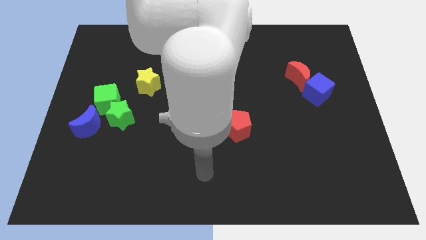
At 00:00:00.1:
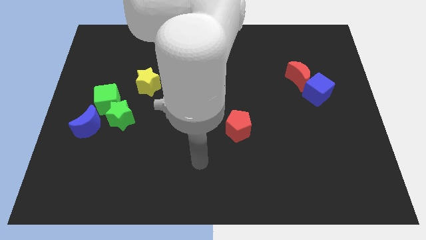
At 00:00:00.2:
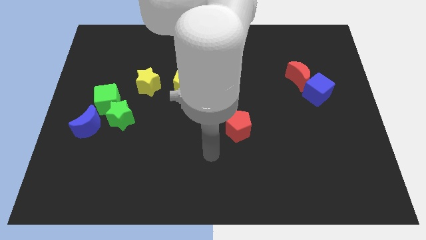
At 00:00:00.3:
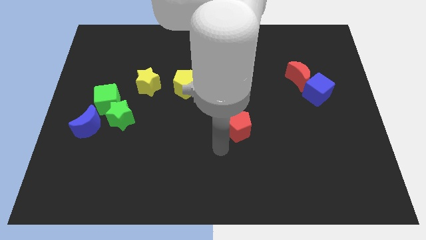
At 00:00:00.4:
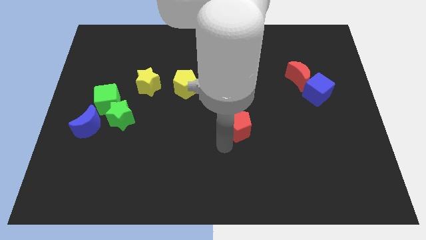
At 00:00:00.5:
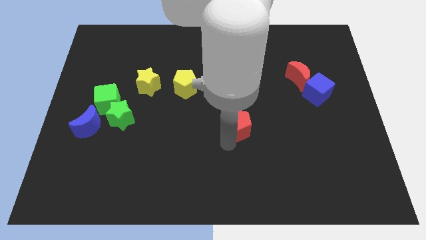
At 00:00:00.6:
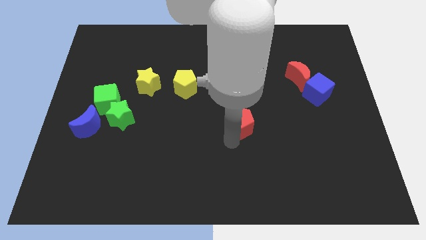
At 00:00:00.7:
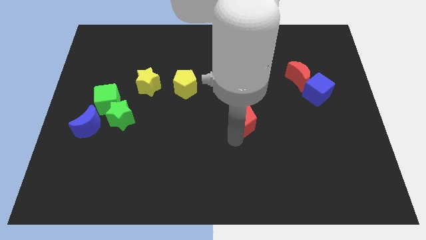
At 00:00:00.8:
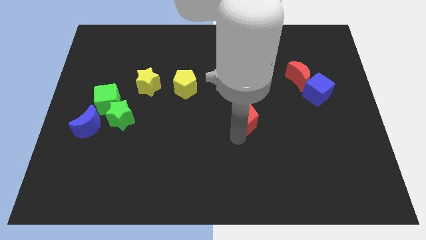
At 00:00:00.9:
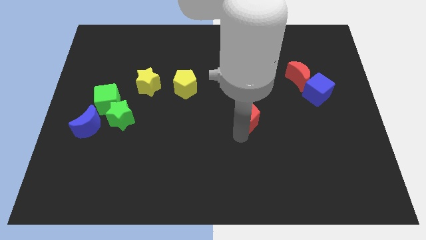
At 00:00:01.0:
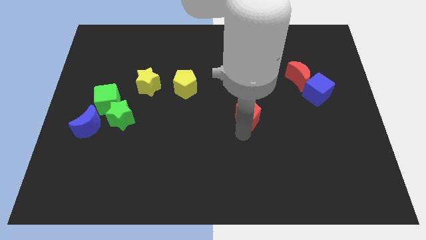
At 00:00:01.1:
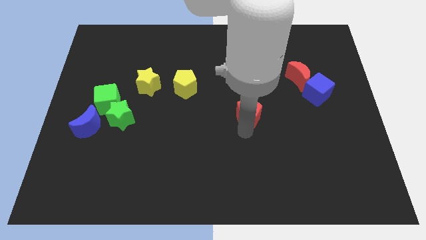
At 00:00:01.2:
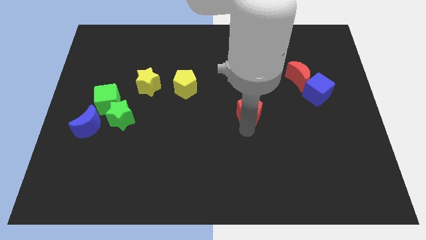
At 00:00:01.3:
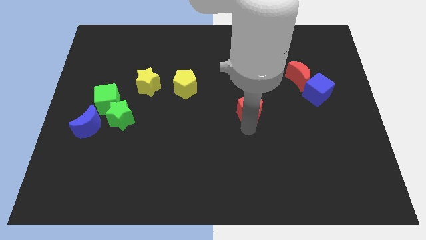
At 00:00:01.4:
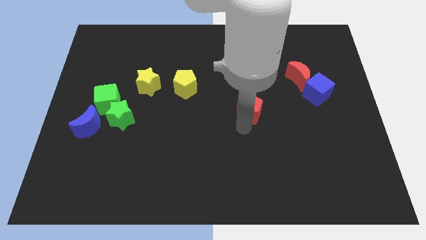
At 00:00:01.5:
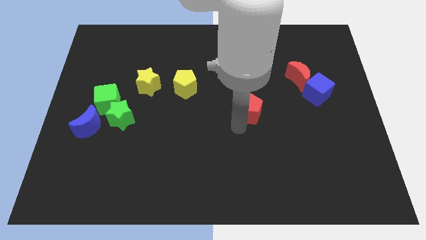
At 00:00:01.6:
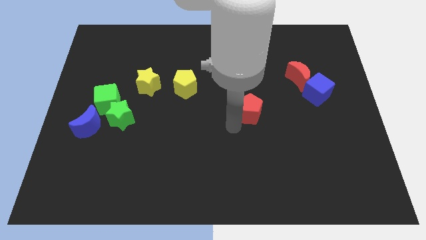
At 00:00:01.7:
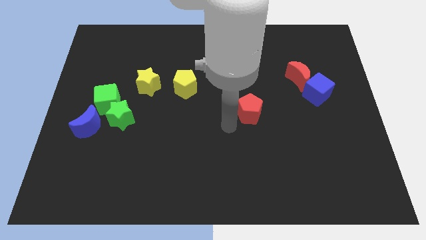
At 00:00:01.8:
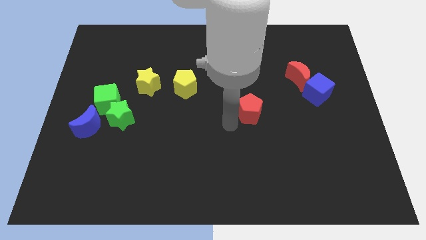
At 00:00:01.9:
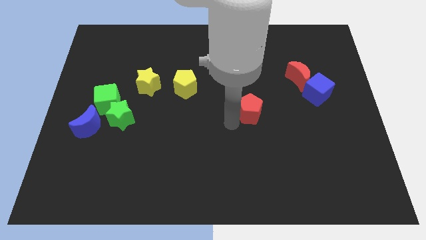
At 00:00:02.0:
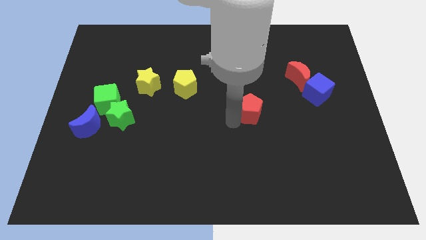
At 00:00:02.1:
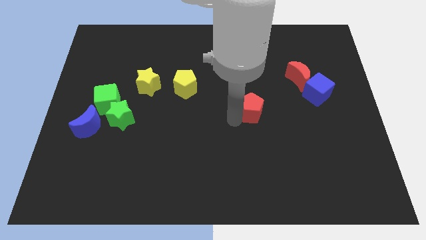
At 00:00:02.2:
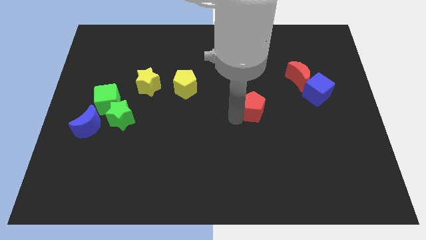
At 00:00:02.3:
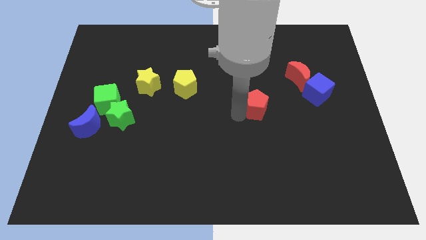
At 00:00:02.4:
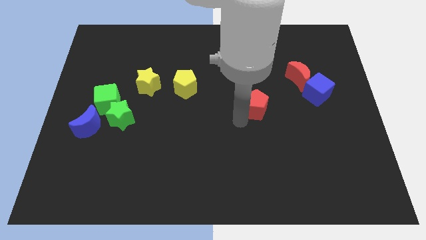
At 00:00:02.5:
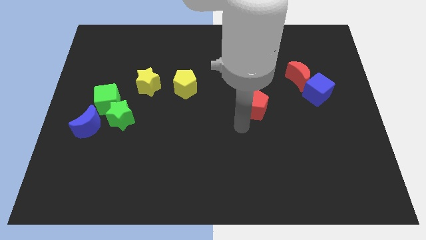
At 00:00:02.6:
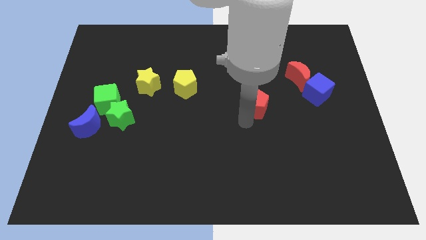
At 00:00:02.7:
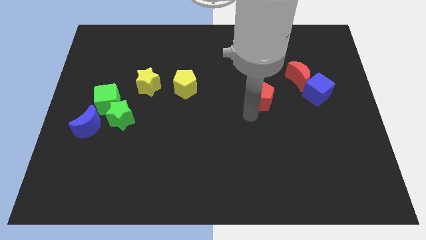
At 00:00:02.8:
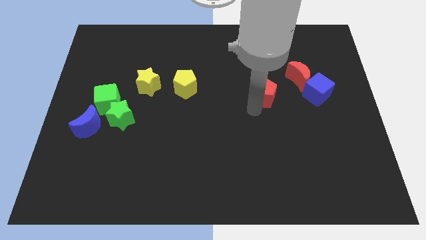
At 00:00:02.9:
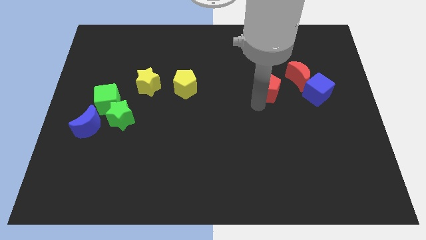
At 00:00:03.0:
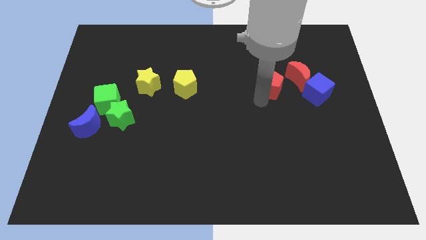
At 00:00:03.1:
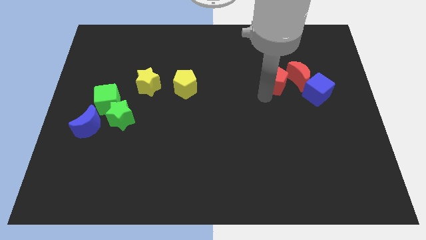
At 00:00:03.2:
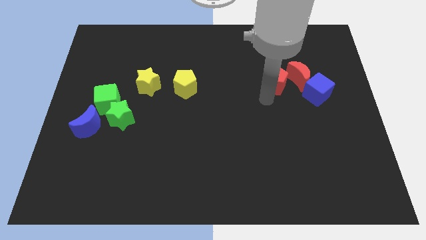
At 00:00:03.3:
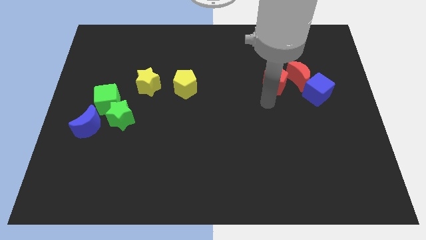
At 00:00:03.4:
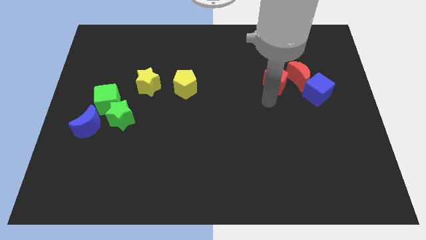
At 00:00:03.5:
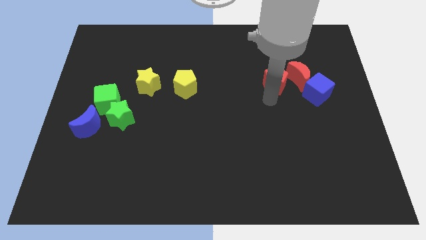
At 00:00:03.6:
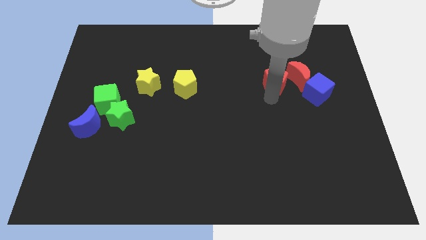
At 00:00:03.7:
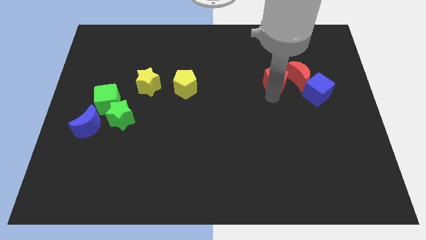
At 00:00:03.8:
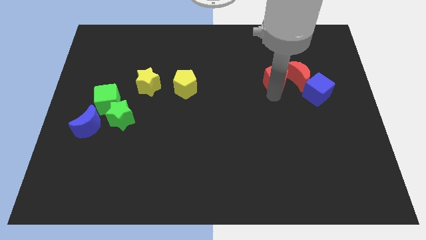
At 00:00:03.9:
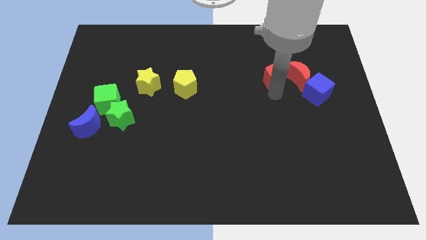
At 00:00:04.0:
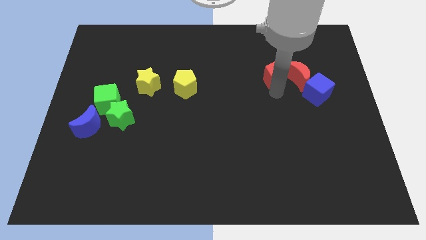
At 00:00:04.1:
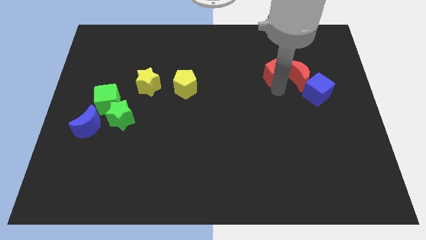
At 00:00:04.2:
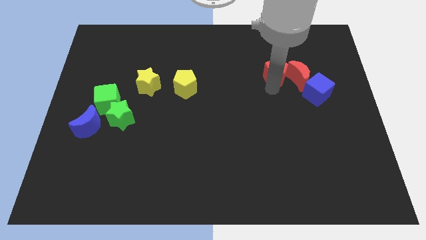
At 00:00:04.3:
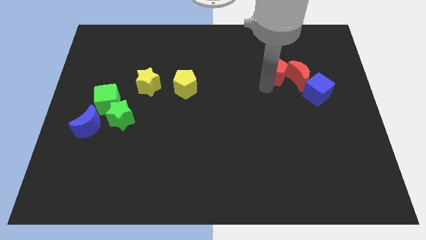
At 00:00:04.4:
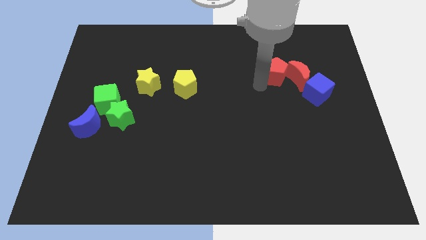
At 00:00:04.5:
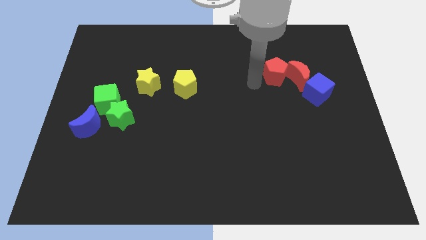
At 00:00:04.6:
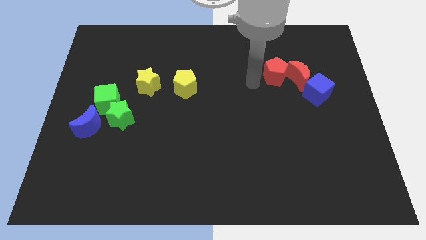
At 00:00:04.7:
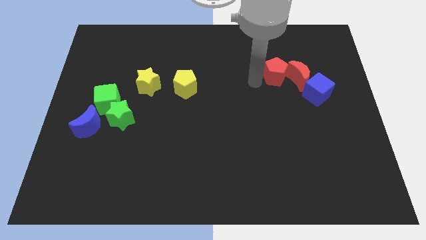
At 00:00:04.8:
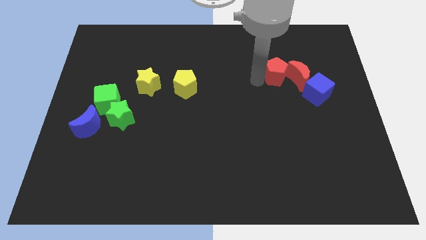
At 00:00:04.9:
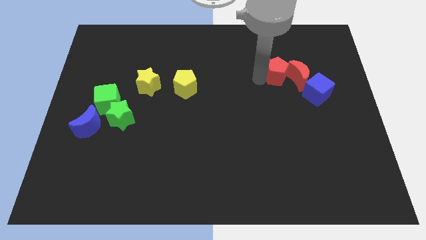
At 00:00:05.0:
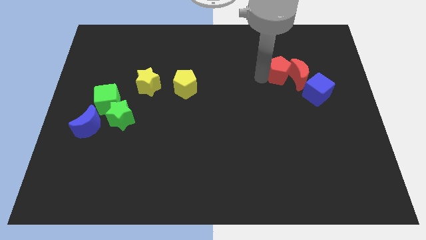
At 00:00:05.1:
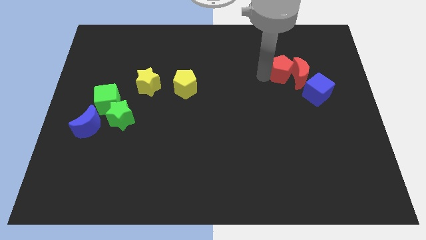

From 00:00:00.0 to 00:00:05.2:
slide the red pentagon diagonally up and to the right

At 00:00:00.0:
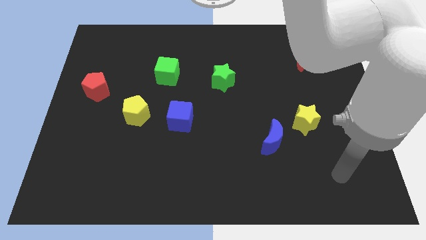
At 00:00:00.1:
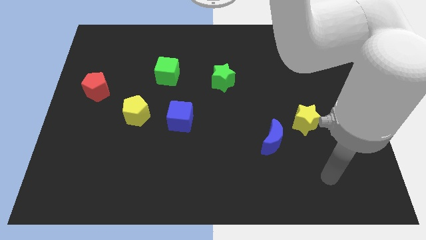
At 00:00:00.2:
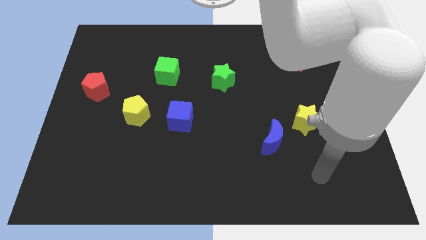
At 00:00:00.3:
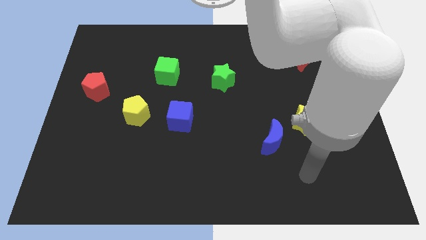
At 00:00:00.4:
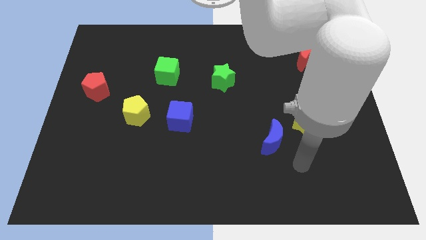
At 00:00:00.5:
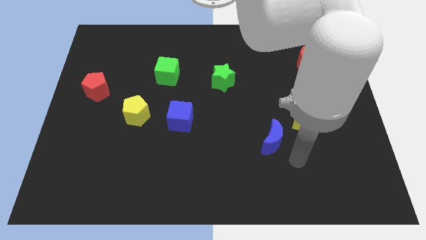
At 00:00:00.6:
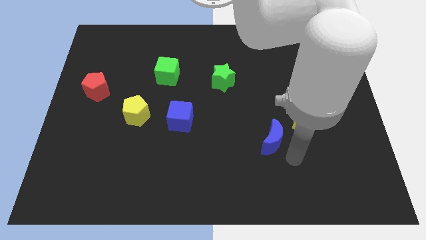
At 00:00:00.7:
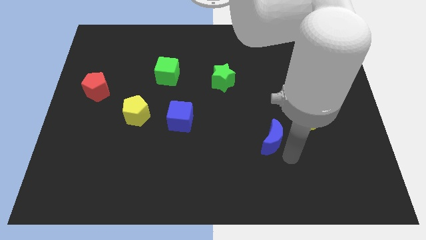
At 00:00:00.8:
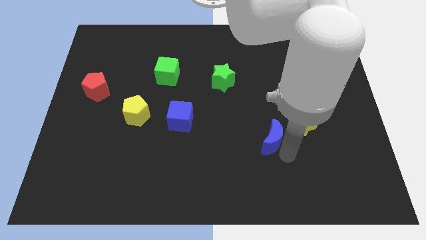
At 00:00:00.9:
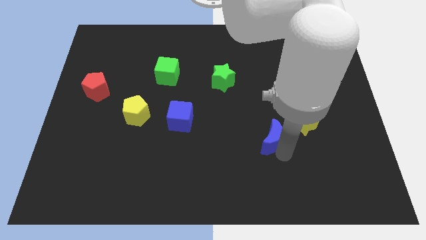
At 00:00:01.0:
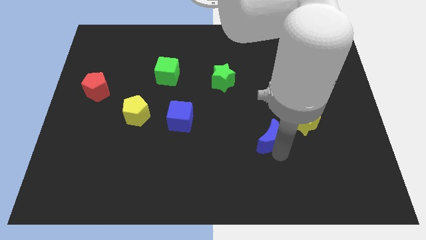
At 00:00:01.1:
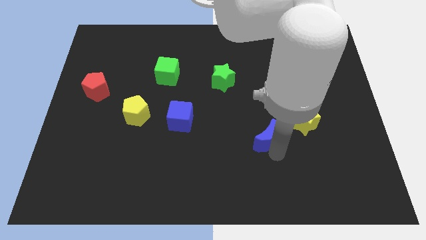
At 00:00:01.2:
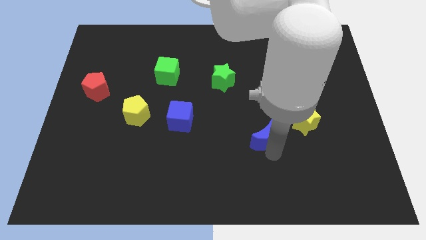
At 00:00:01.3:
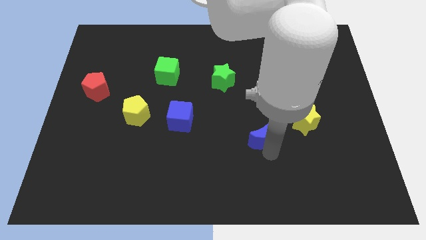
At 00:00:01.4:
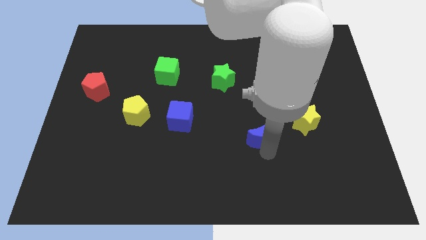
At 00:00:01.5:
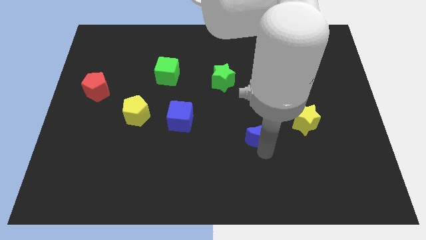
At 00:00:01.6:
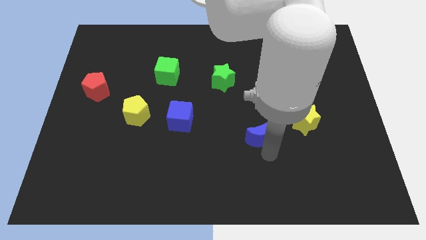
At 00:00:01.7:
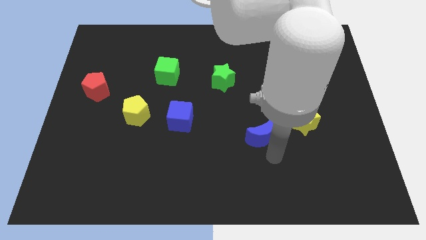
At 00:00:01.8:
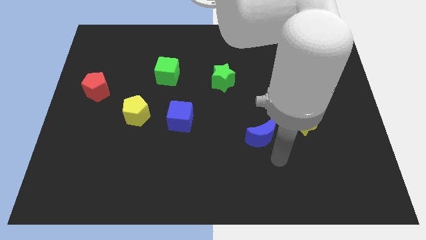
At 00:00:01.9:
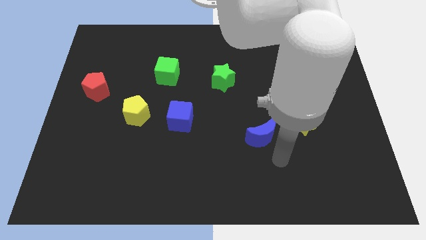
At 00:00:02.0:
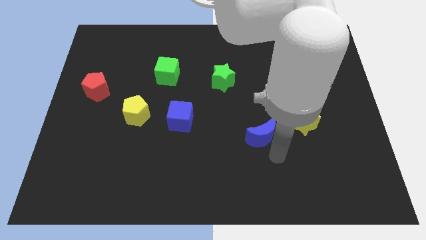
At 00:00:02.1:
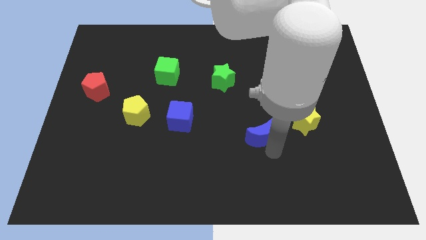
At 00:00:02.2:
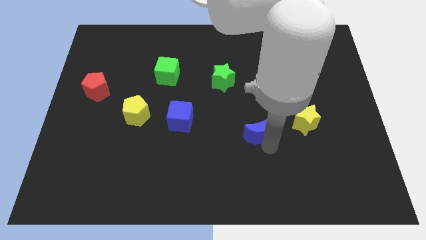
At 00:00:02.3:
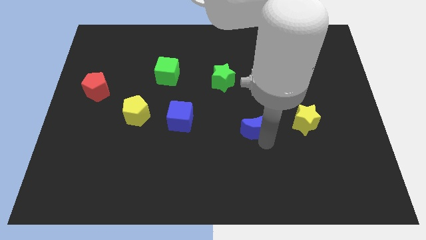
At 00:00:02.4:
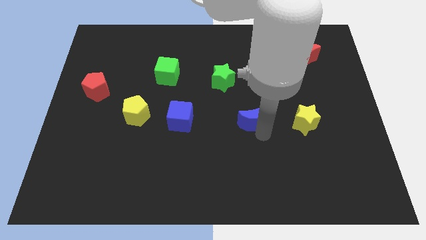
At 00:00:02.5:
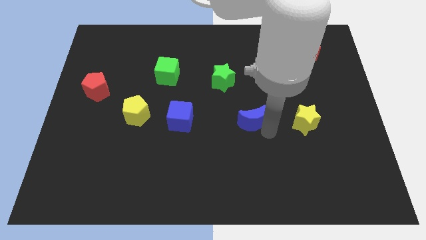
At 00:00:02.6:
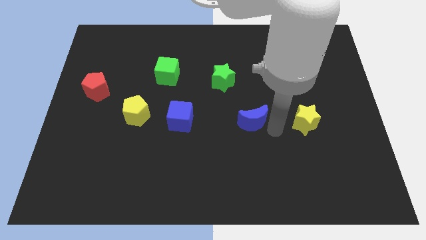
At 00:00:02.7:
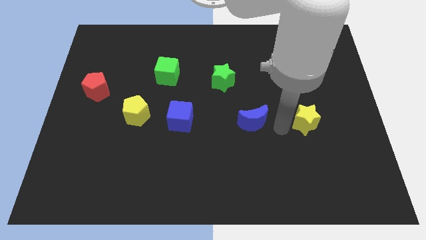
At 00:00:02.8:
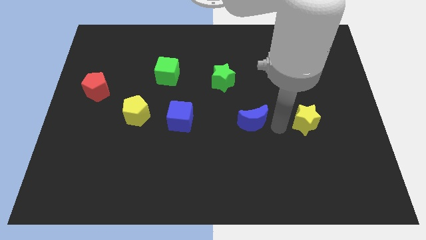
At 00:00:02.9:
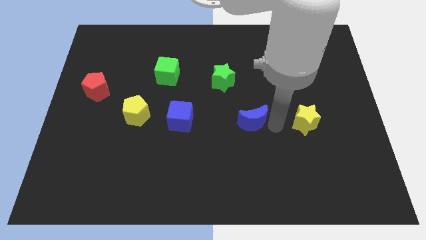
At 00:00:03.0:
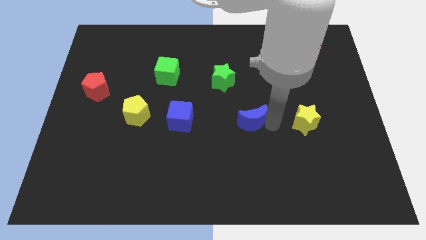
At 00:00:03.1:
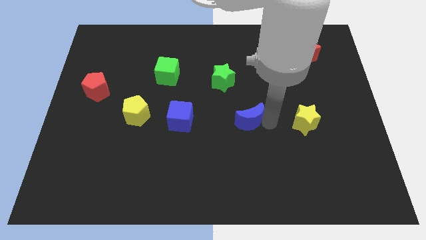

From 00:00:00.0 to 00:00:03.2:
push the blue moon upwards and left diagonally slightly

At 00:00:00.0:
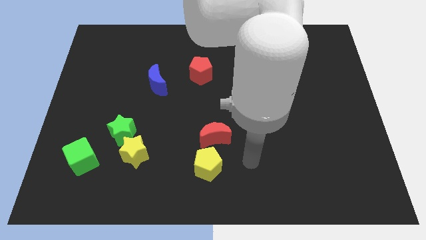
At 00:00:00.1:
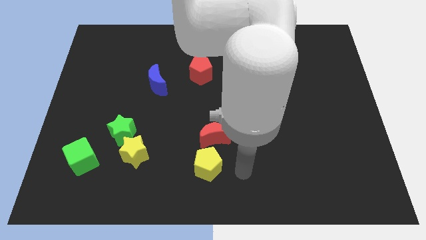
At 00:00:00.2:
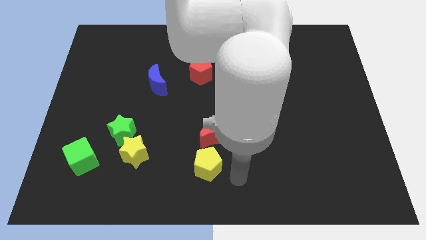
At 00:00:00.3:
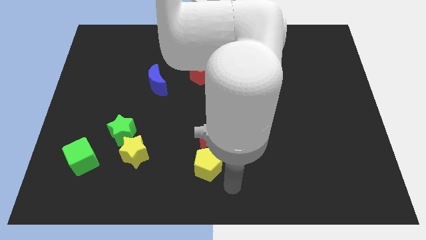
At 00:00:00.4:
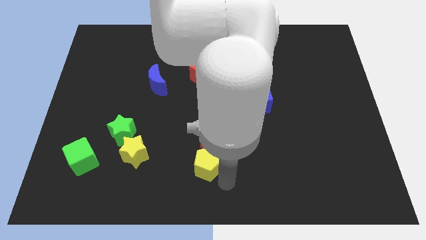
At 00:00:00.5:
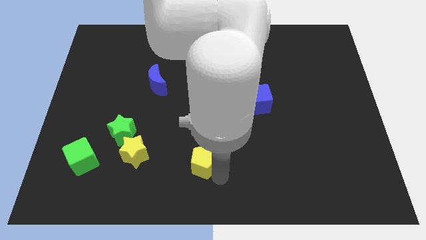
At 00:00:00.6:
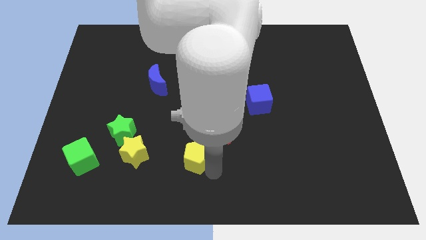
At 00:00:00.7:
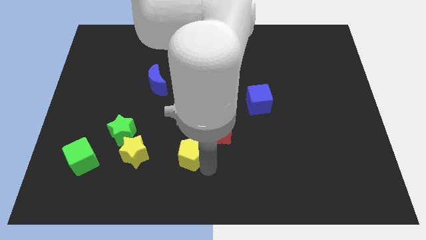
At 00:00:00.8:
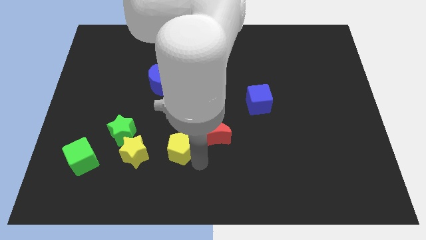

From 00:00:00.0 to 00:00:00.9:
slightly slide the yellow pentagon up and then left
